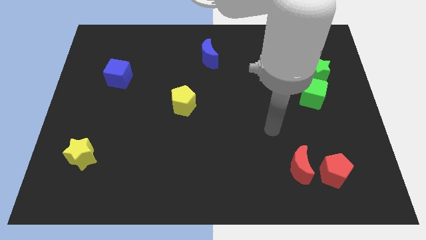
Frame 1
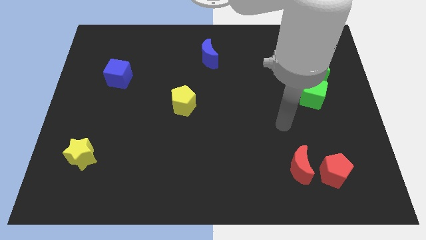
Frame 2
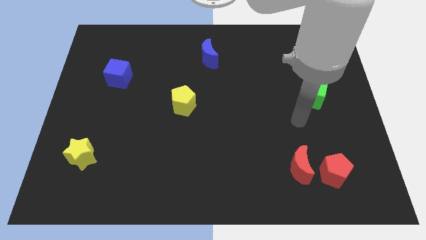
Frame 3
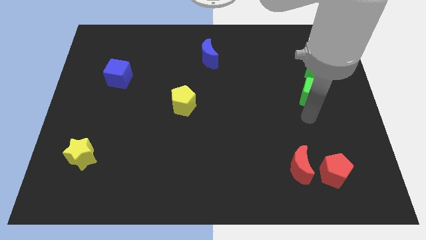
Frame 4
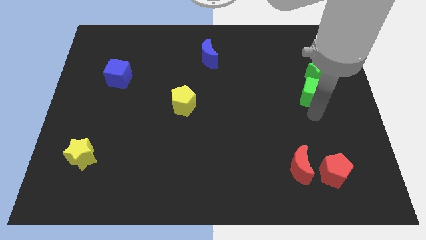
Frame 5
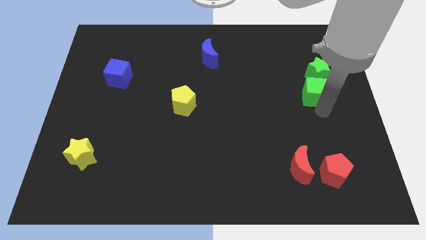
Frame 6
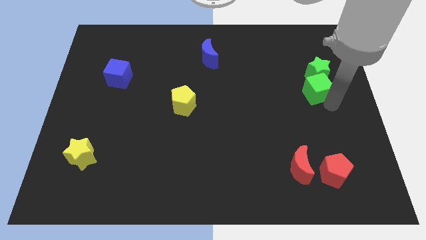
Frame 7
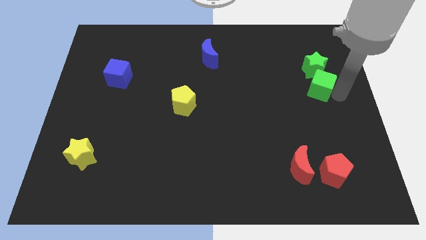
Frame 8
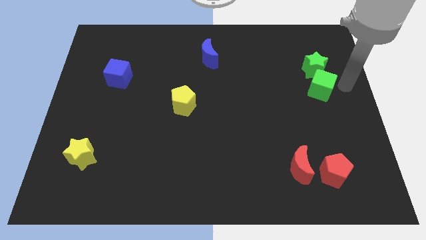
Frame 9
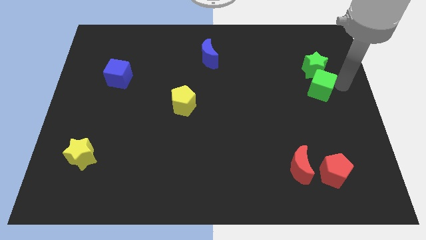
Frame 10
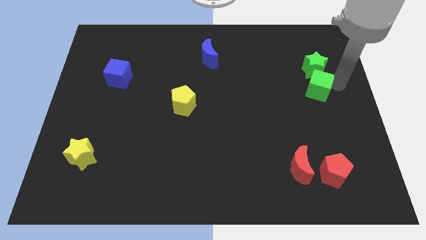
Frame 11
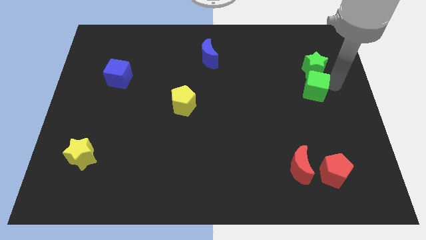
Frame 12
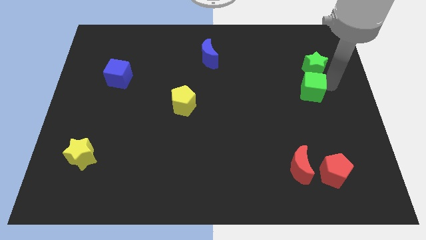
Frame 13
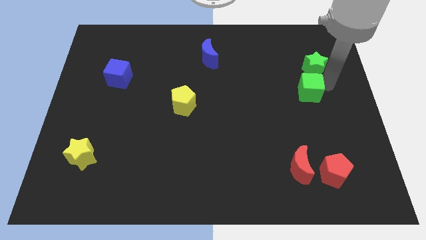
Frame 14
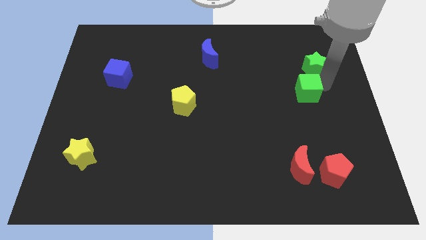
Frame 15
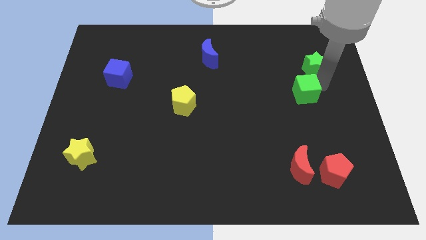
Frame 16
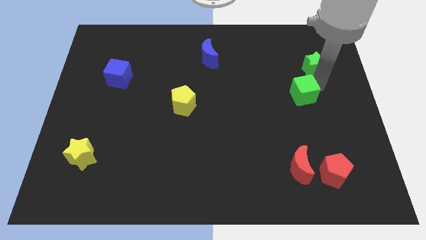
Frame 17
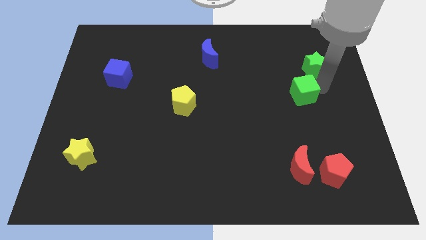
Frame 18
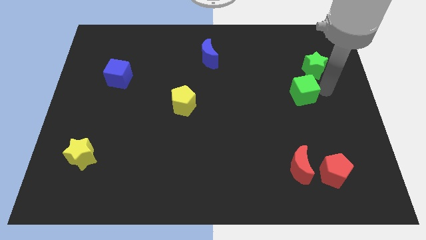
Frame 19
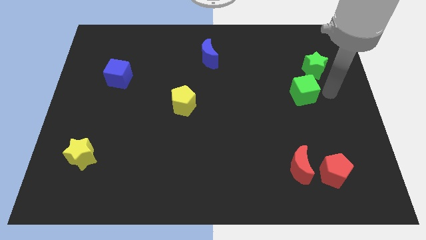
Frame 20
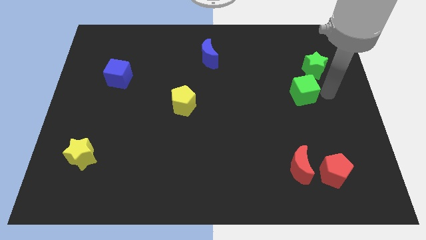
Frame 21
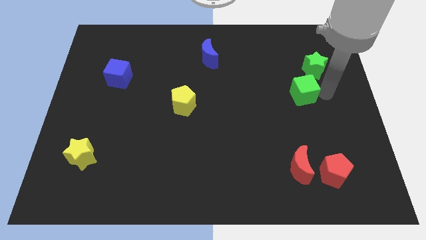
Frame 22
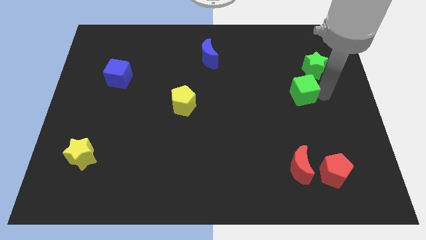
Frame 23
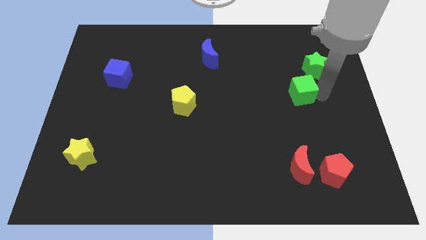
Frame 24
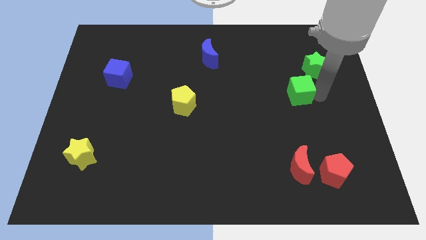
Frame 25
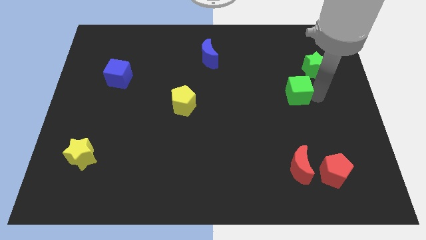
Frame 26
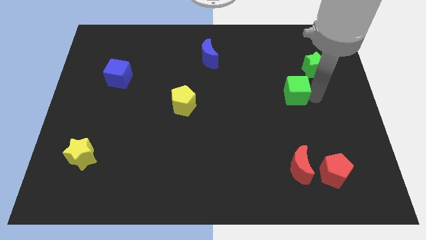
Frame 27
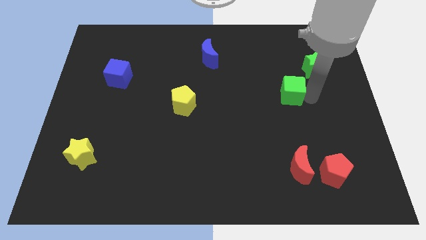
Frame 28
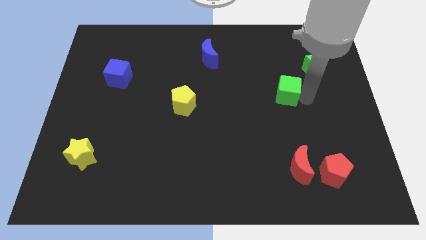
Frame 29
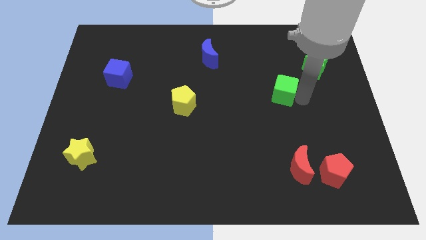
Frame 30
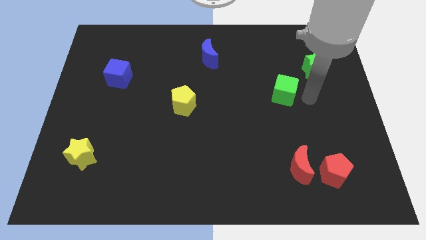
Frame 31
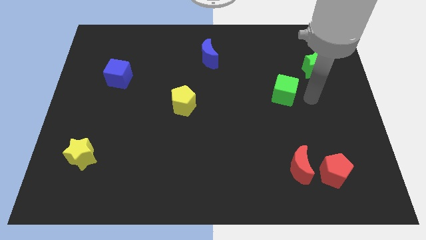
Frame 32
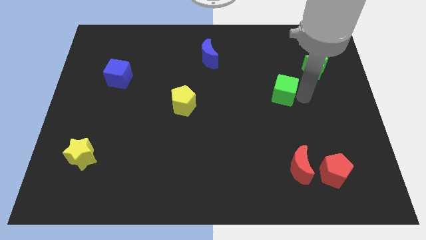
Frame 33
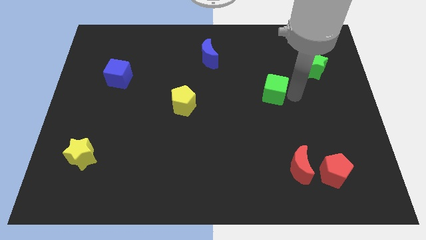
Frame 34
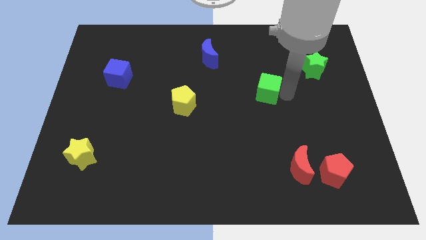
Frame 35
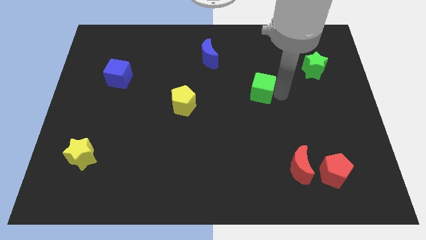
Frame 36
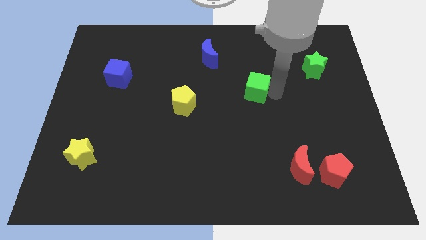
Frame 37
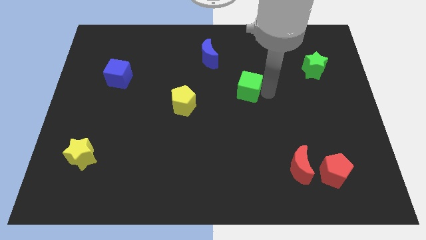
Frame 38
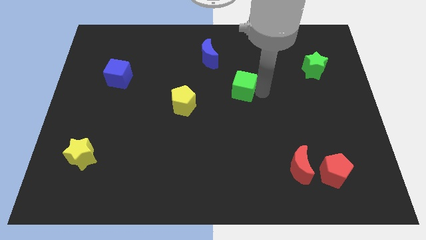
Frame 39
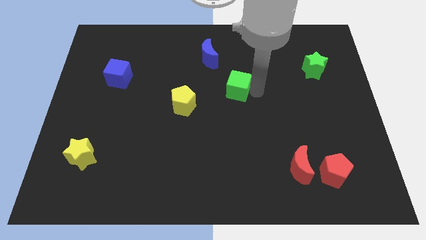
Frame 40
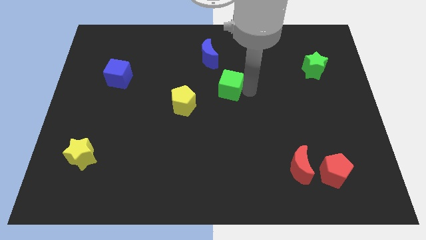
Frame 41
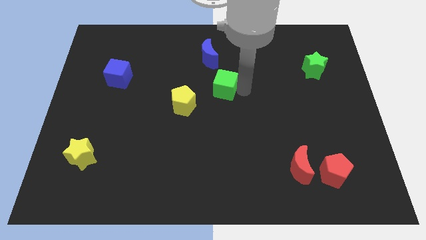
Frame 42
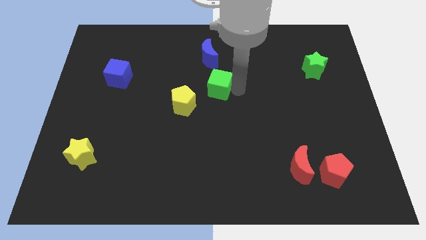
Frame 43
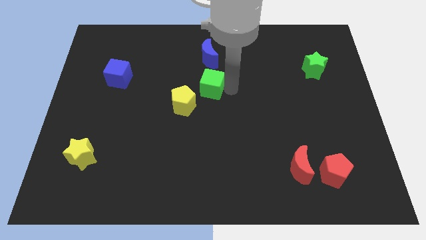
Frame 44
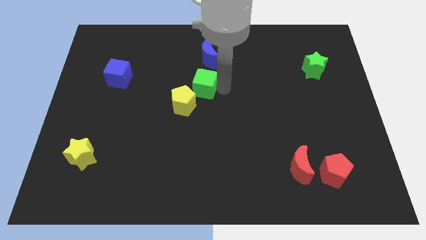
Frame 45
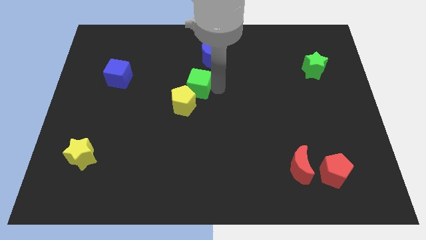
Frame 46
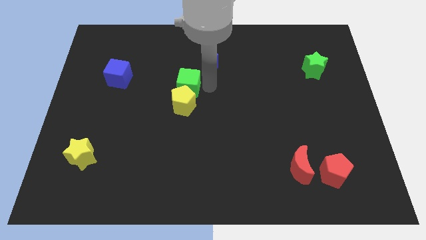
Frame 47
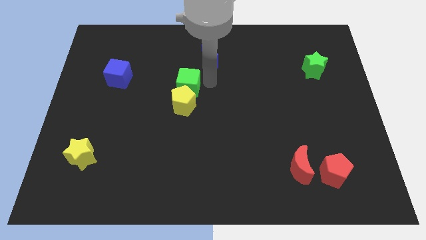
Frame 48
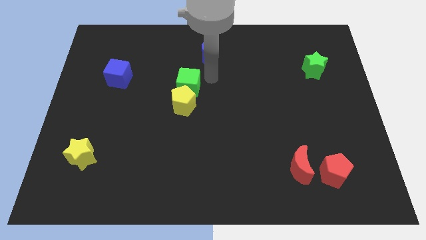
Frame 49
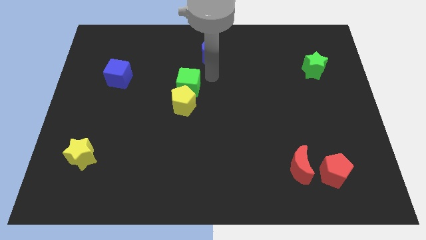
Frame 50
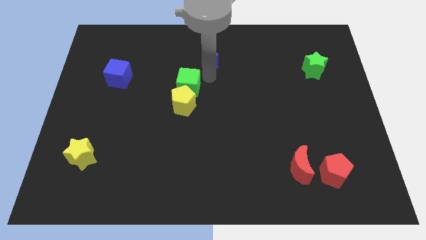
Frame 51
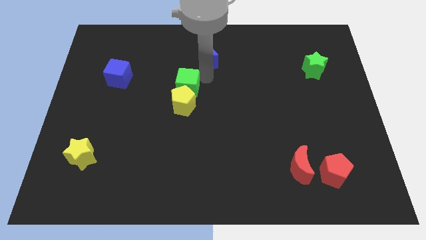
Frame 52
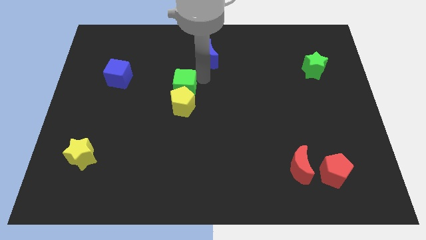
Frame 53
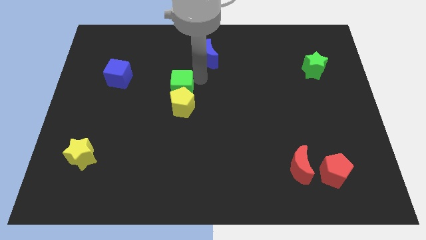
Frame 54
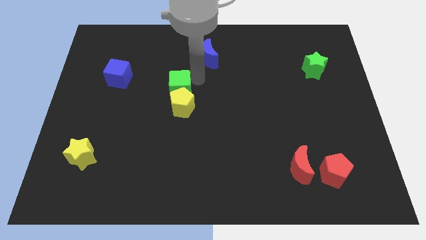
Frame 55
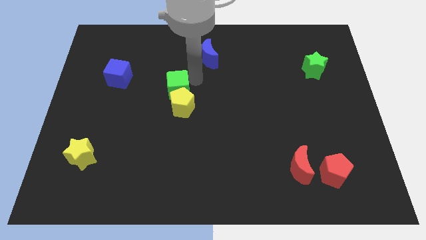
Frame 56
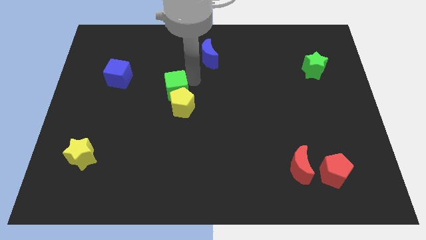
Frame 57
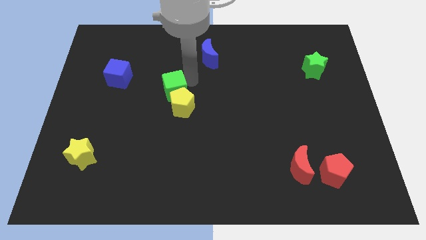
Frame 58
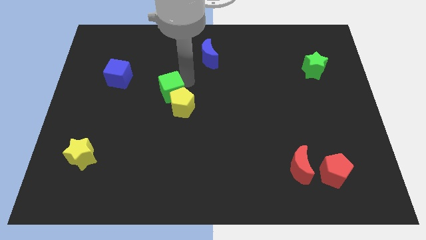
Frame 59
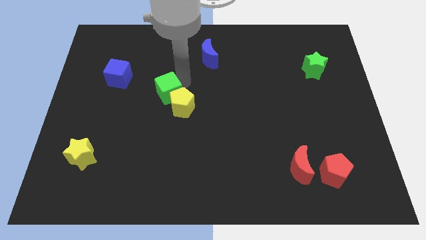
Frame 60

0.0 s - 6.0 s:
move the green cube just left of the yellow pentagon

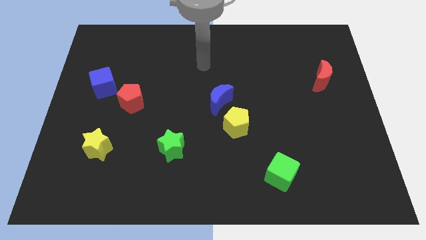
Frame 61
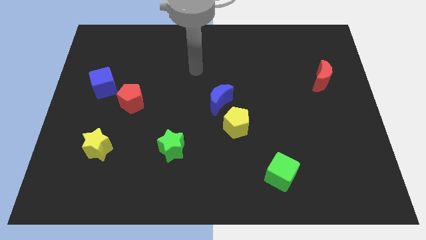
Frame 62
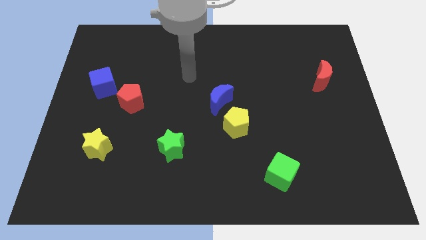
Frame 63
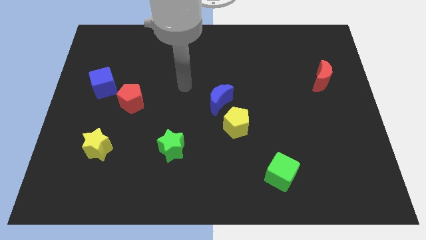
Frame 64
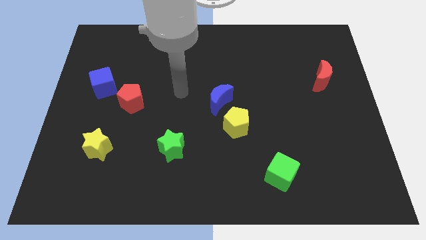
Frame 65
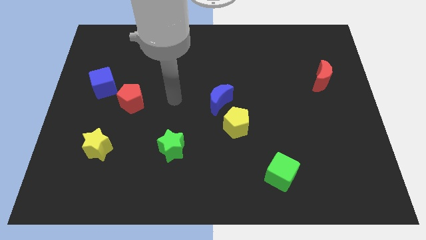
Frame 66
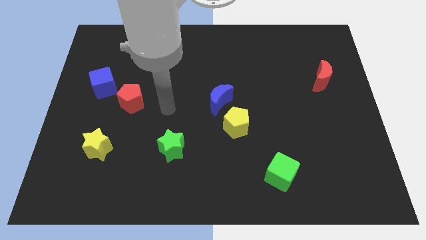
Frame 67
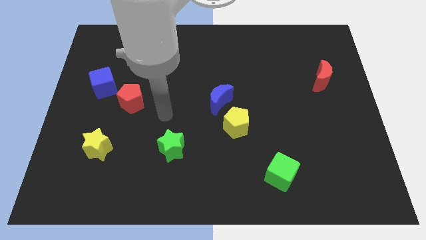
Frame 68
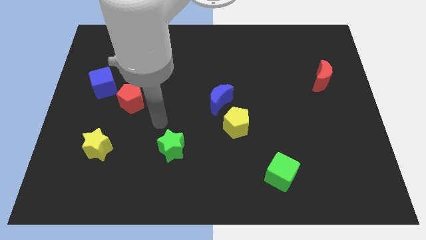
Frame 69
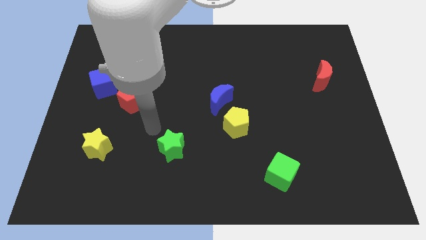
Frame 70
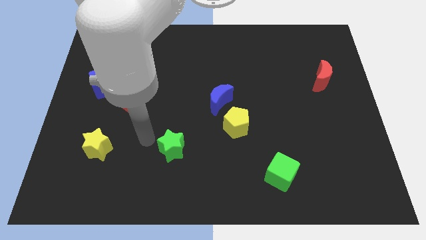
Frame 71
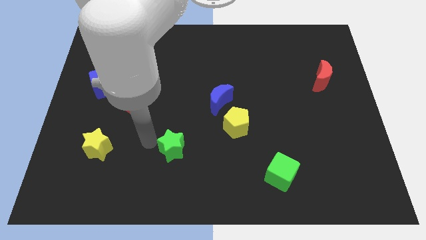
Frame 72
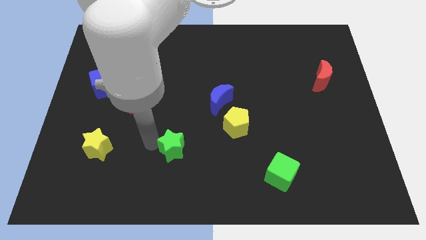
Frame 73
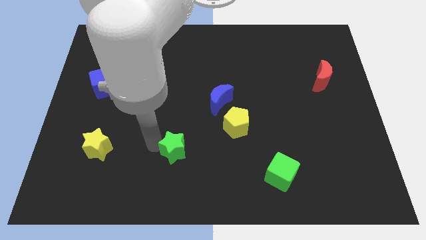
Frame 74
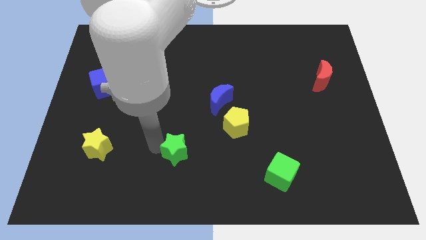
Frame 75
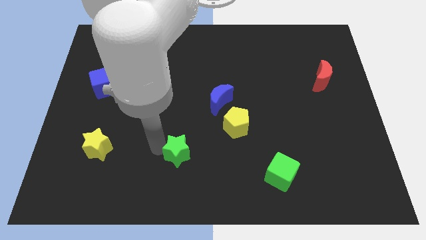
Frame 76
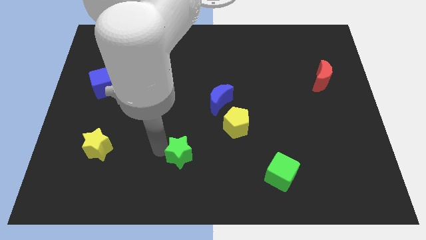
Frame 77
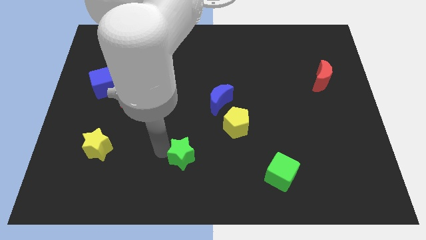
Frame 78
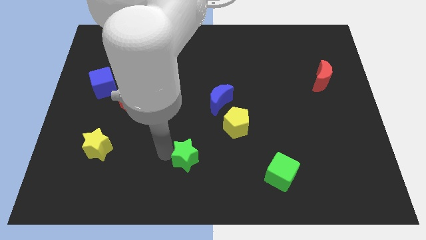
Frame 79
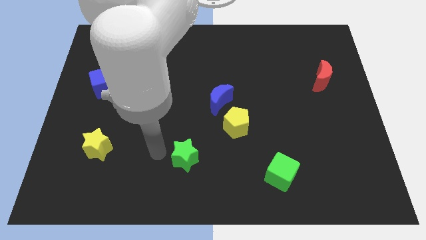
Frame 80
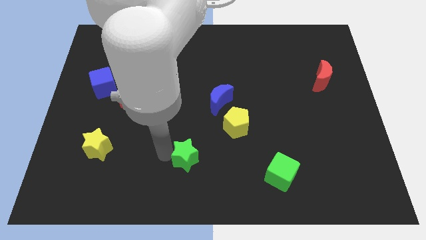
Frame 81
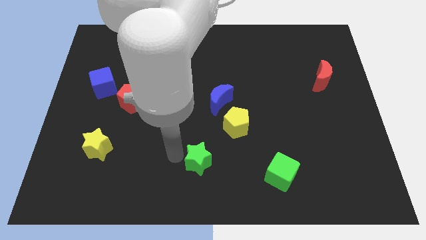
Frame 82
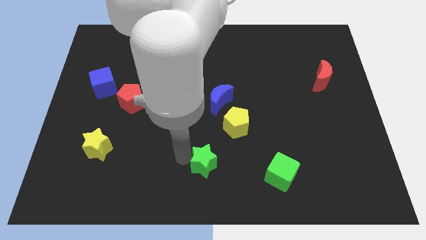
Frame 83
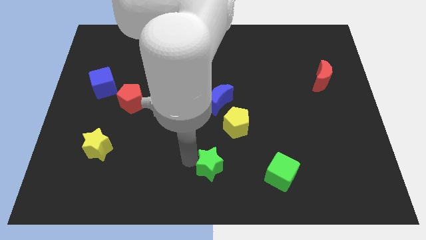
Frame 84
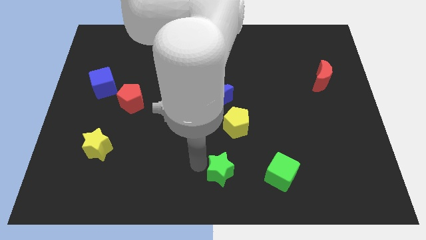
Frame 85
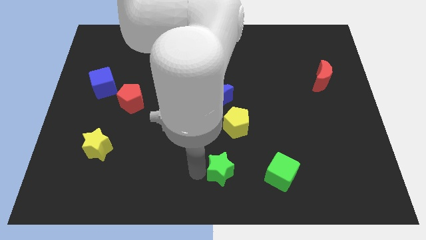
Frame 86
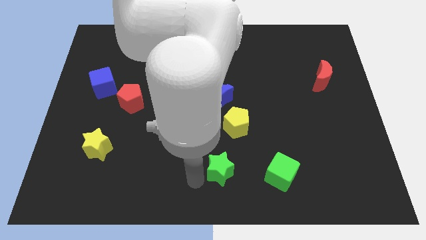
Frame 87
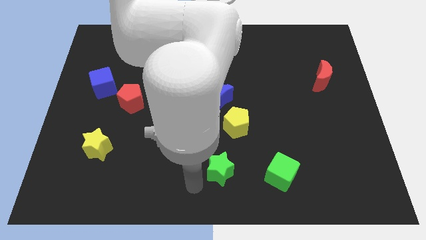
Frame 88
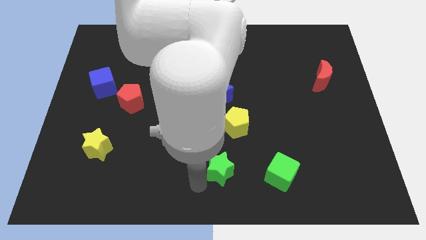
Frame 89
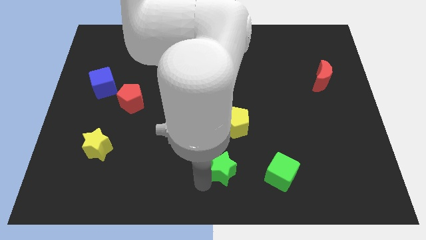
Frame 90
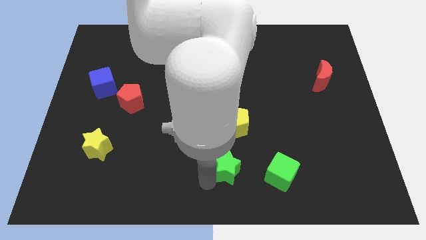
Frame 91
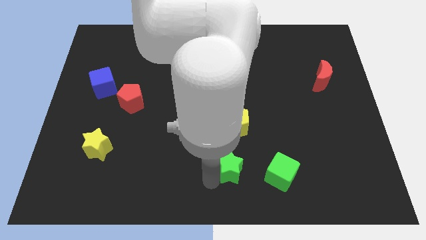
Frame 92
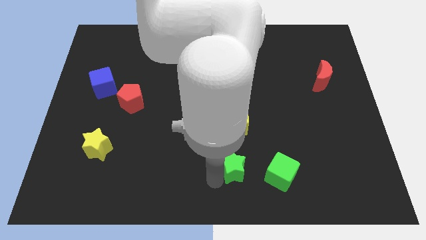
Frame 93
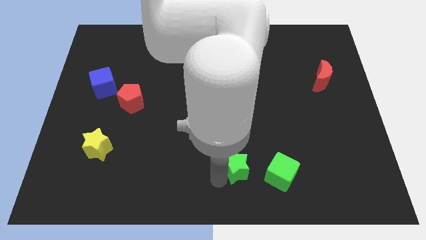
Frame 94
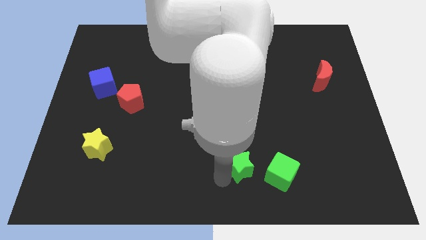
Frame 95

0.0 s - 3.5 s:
slide the green star to the top left side of the green cube
